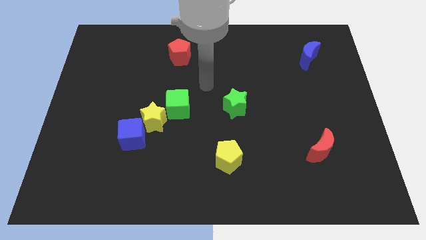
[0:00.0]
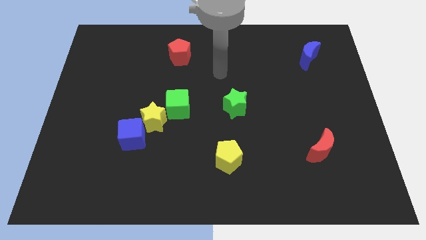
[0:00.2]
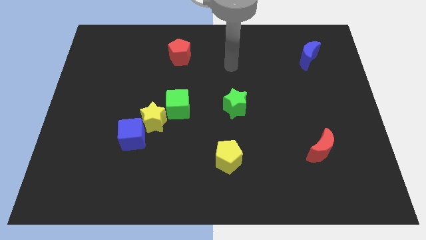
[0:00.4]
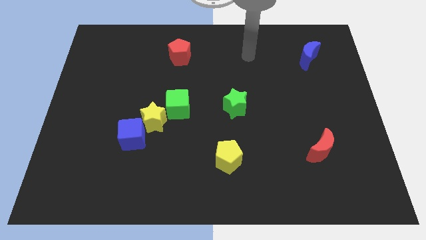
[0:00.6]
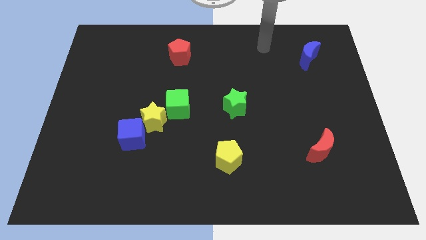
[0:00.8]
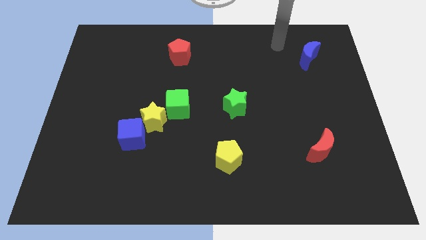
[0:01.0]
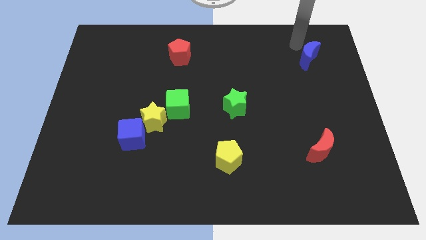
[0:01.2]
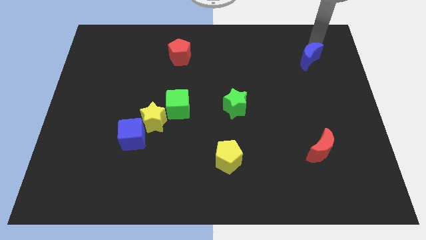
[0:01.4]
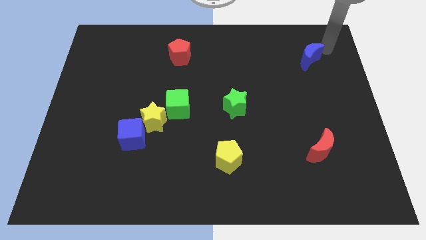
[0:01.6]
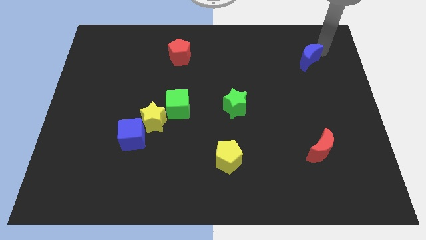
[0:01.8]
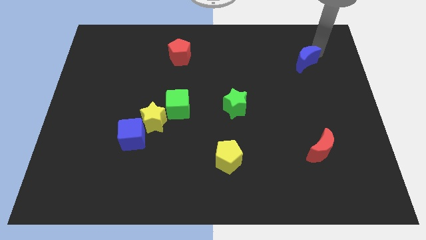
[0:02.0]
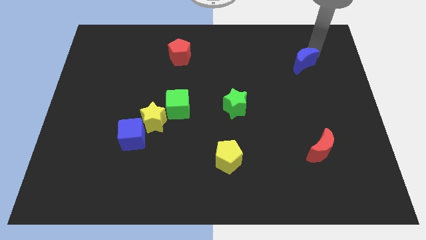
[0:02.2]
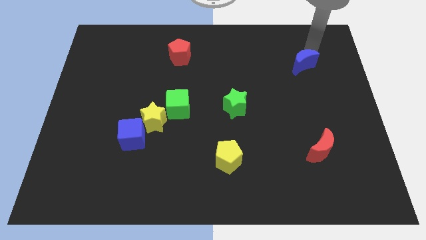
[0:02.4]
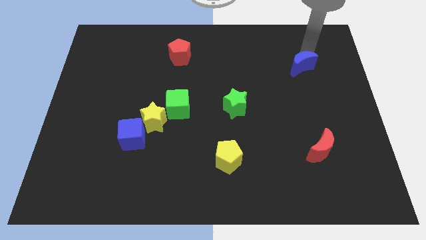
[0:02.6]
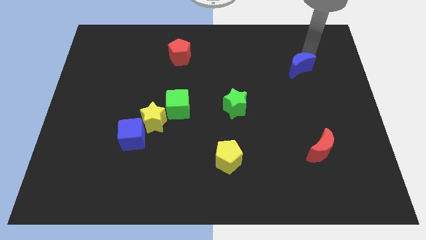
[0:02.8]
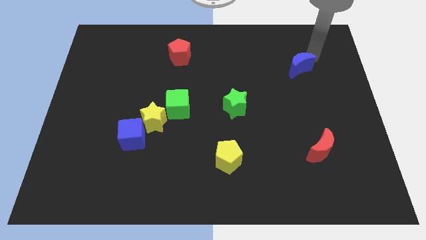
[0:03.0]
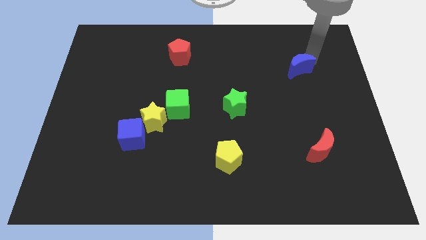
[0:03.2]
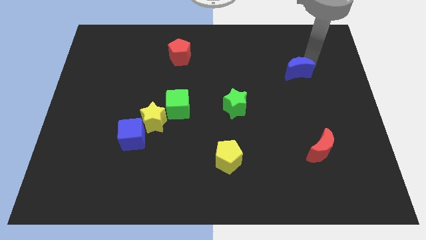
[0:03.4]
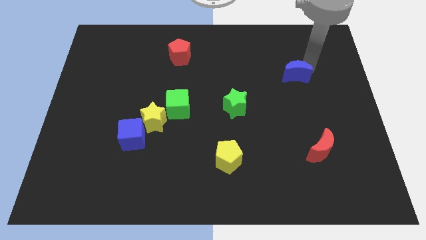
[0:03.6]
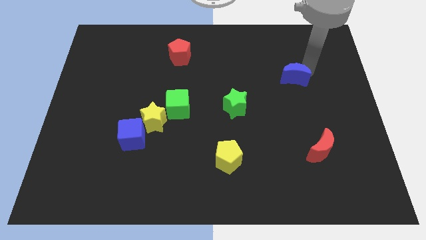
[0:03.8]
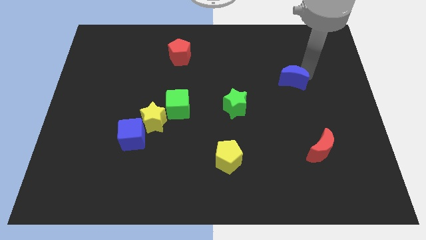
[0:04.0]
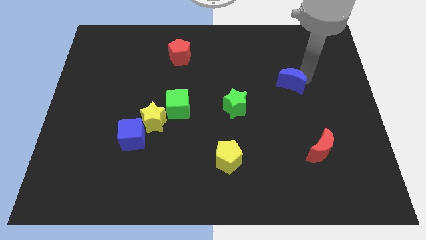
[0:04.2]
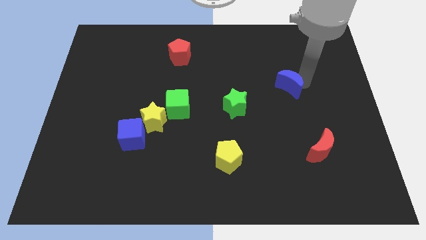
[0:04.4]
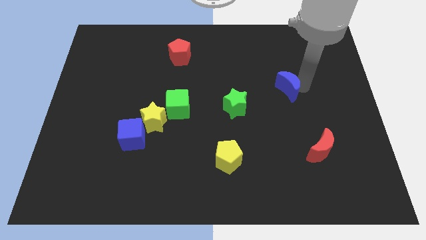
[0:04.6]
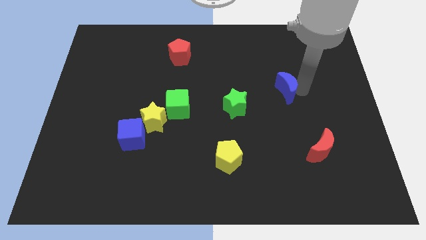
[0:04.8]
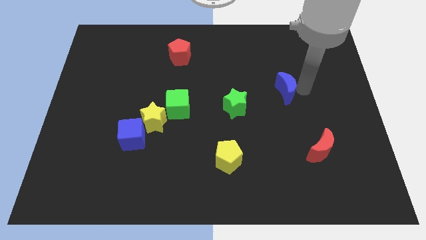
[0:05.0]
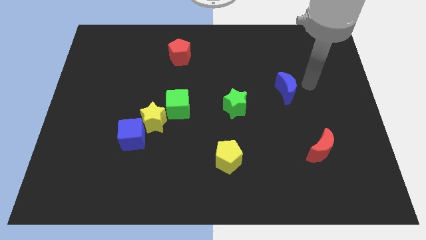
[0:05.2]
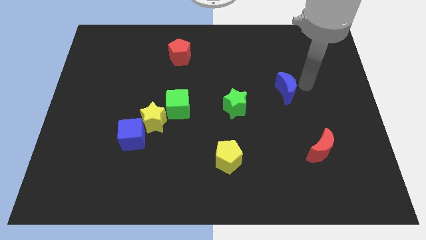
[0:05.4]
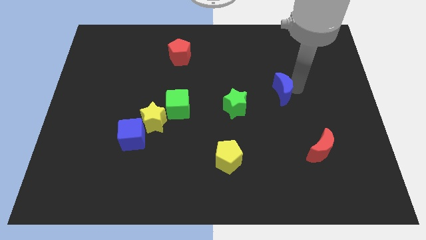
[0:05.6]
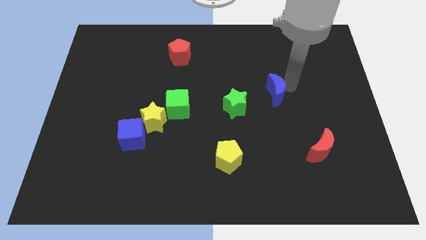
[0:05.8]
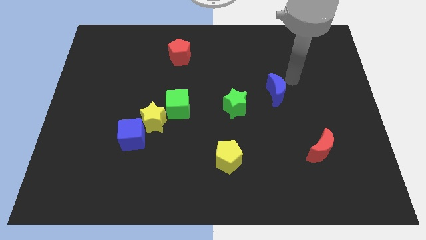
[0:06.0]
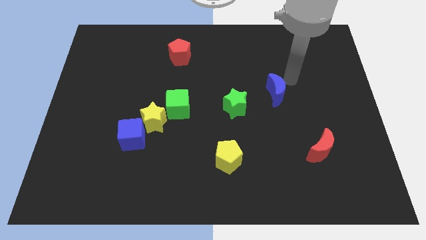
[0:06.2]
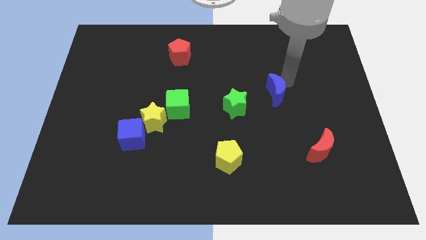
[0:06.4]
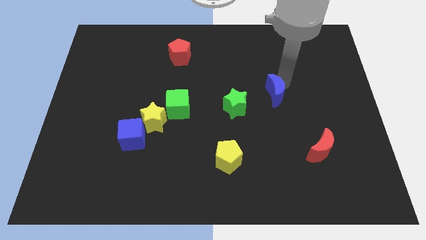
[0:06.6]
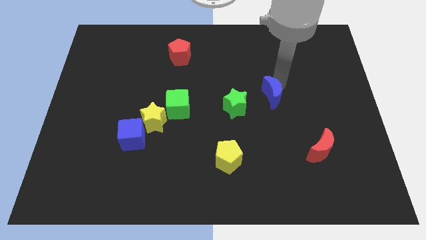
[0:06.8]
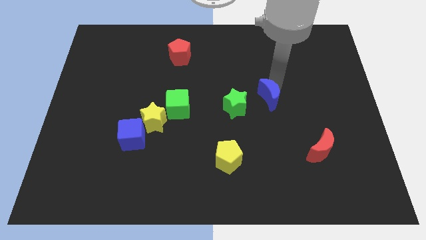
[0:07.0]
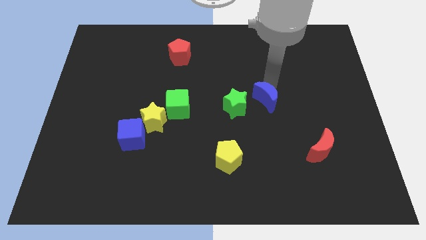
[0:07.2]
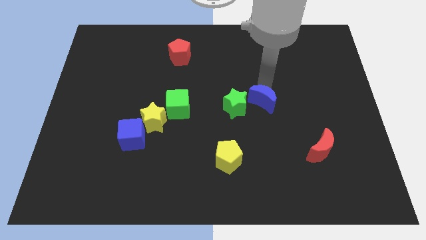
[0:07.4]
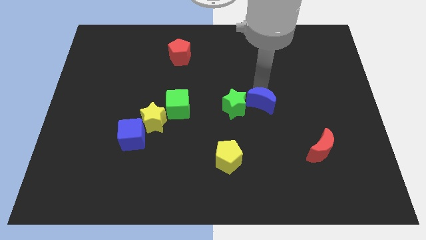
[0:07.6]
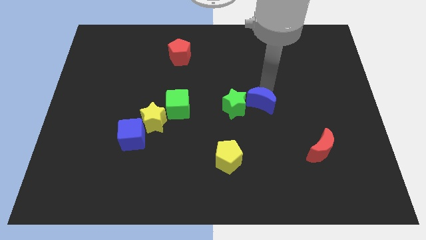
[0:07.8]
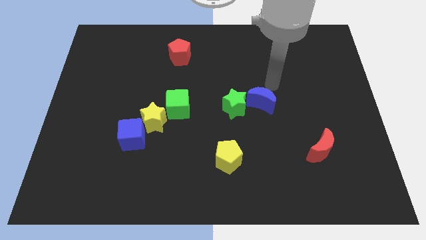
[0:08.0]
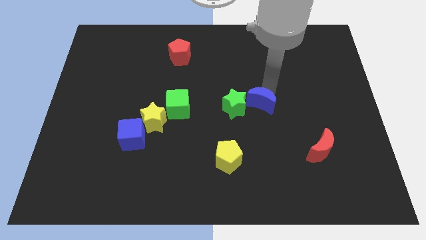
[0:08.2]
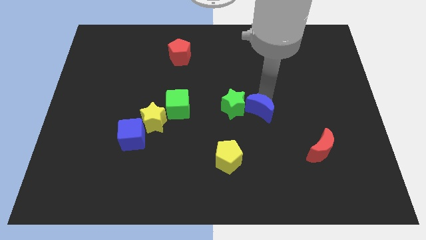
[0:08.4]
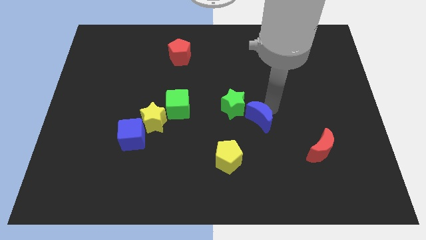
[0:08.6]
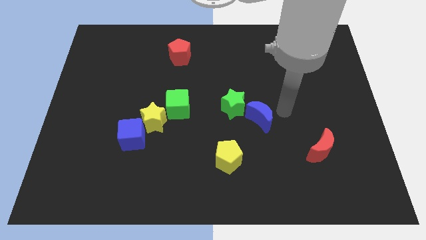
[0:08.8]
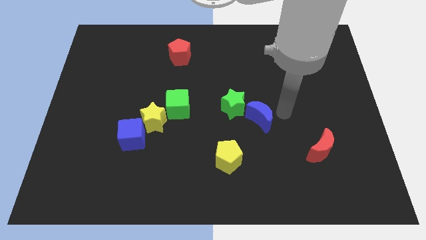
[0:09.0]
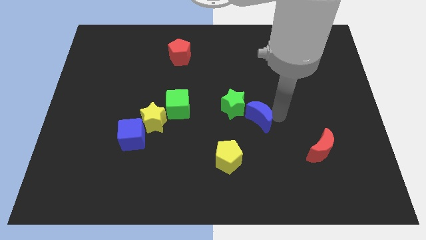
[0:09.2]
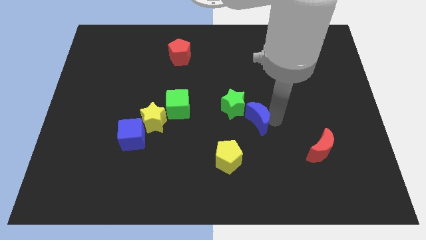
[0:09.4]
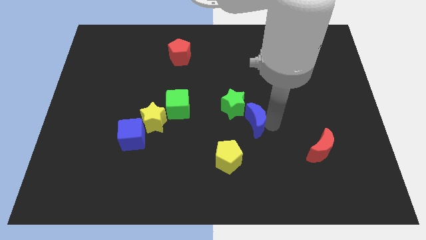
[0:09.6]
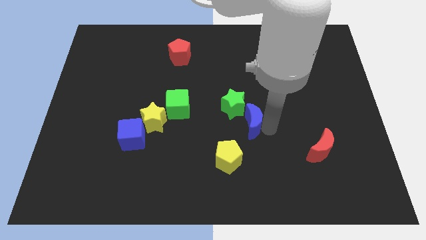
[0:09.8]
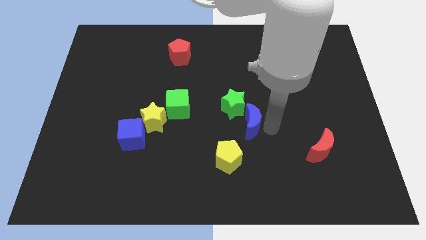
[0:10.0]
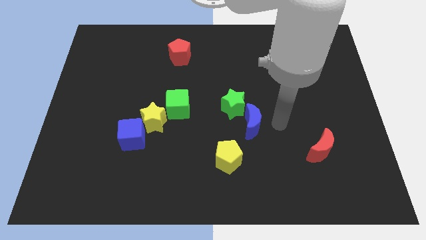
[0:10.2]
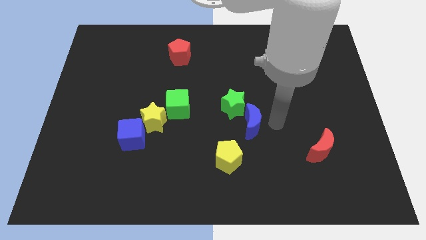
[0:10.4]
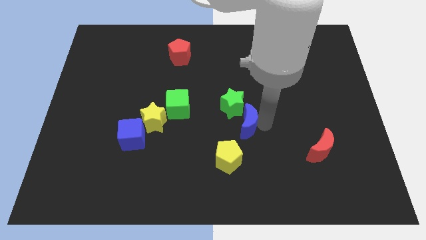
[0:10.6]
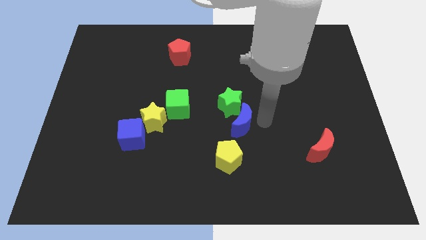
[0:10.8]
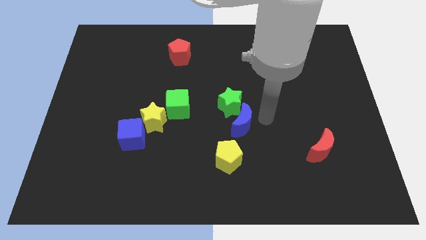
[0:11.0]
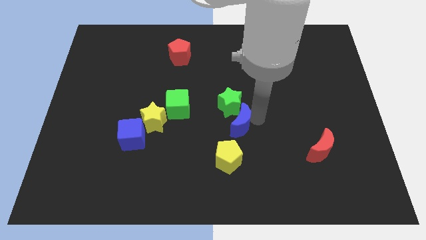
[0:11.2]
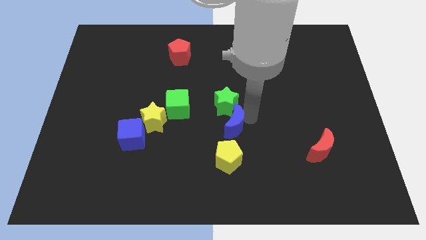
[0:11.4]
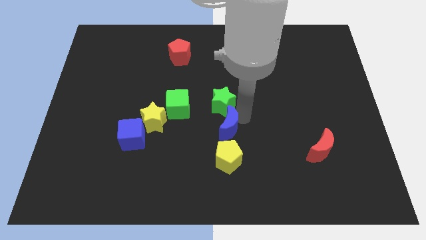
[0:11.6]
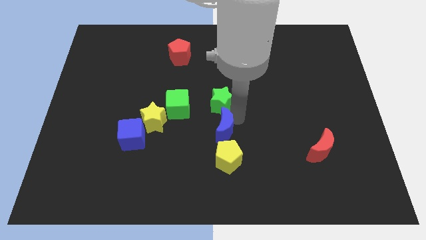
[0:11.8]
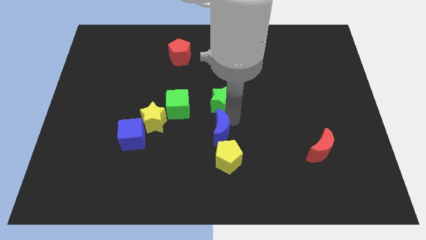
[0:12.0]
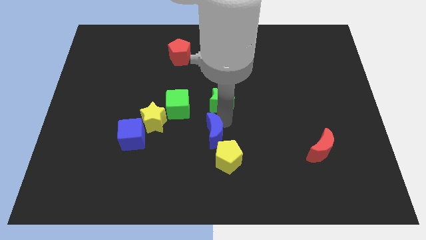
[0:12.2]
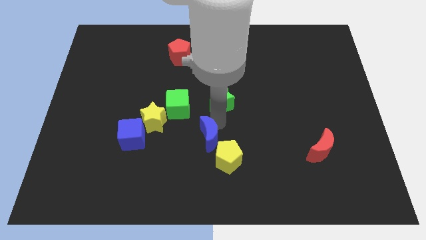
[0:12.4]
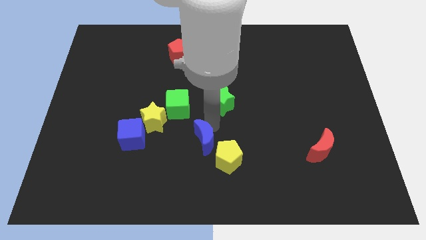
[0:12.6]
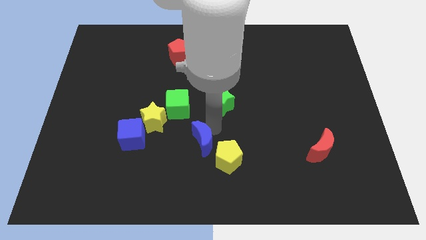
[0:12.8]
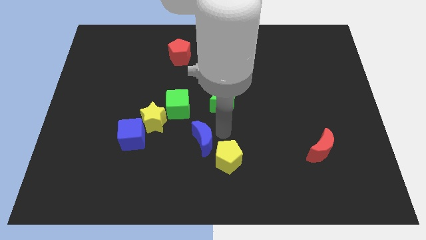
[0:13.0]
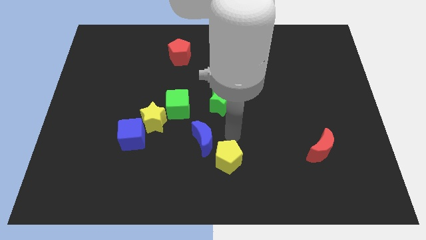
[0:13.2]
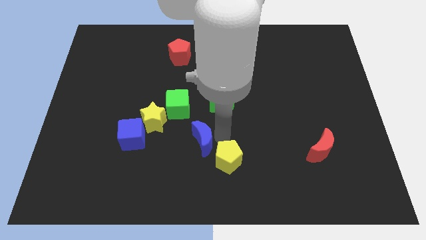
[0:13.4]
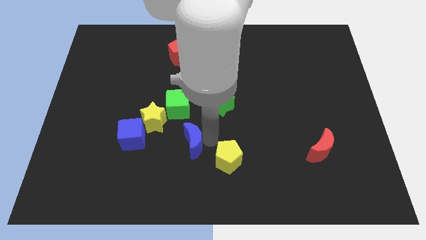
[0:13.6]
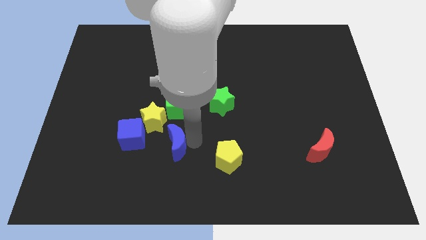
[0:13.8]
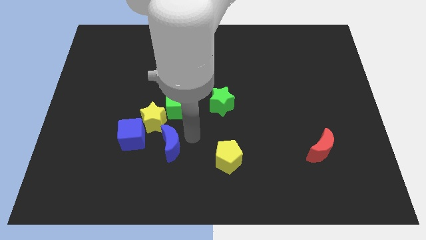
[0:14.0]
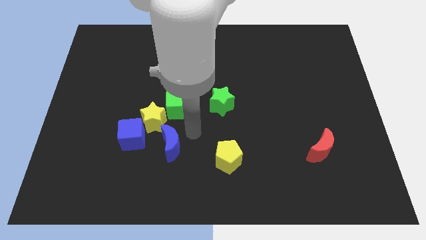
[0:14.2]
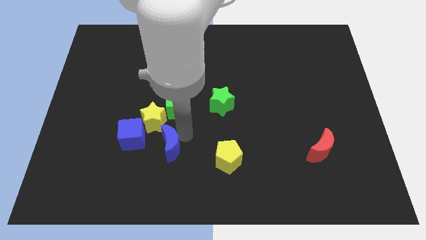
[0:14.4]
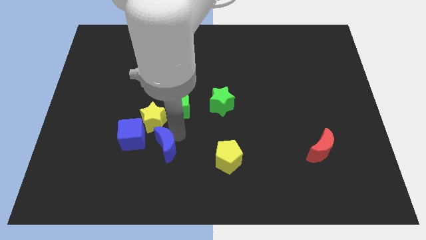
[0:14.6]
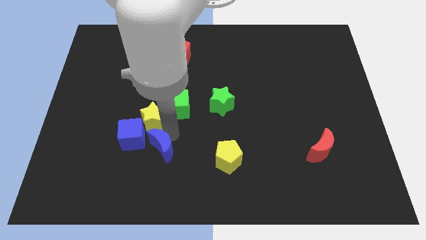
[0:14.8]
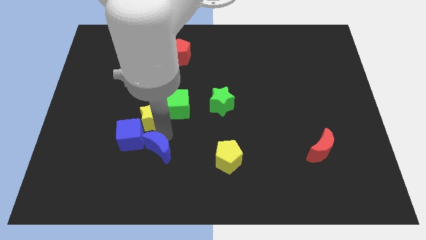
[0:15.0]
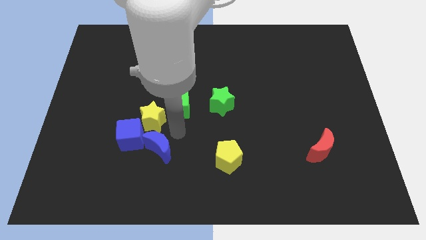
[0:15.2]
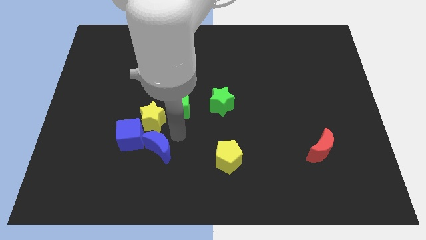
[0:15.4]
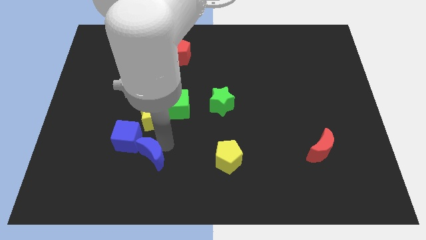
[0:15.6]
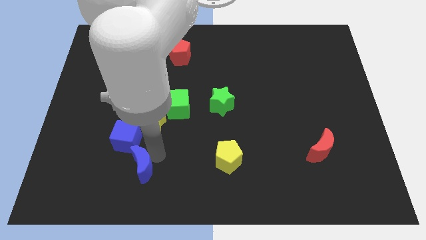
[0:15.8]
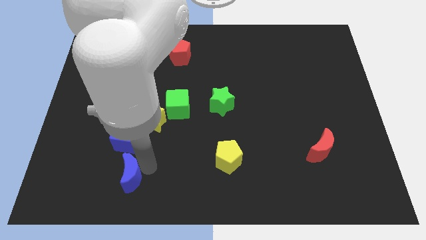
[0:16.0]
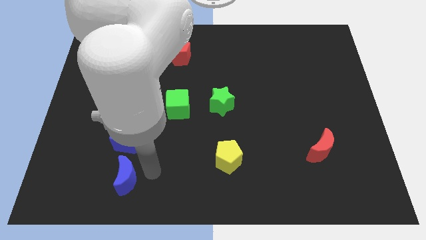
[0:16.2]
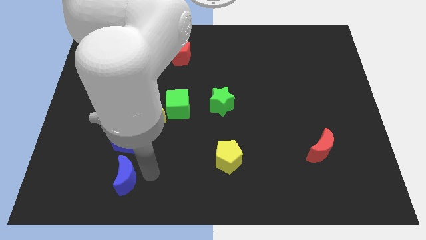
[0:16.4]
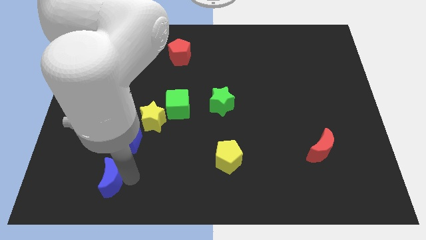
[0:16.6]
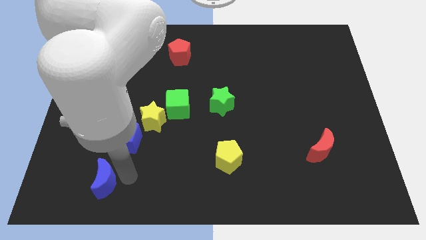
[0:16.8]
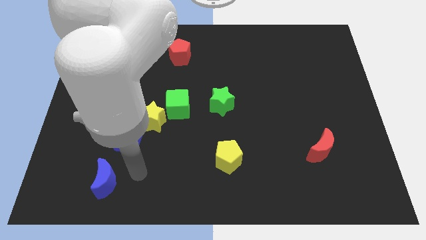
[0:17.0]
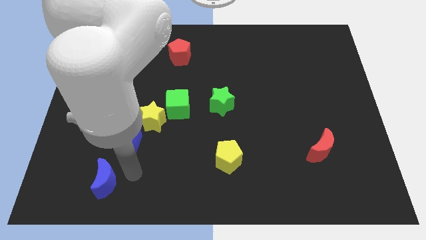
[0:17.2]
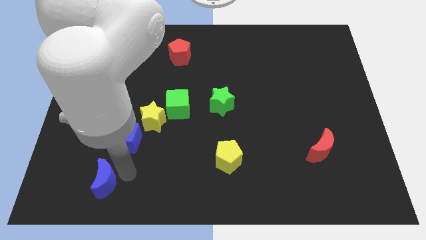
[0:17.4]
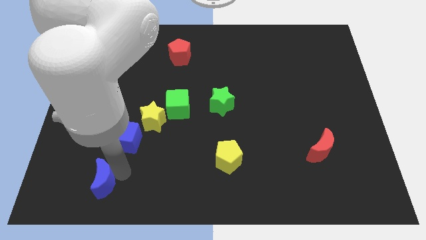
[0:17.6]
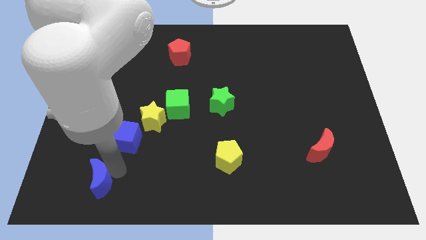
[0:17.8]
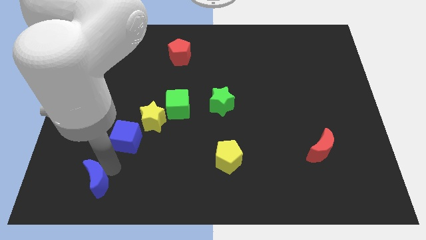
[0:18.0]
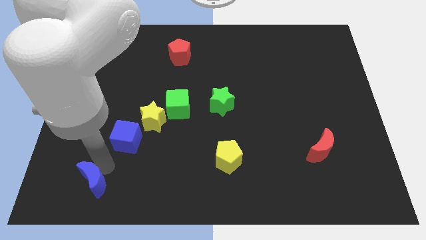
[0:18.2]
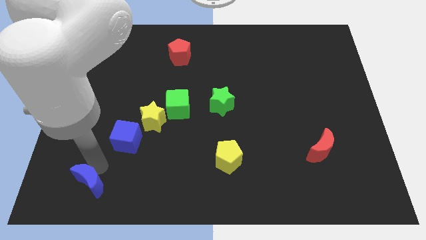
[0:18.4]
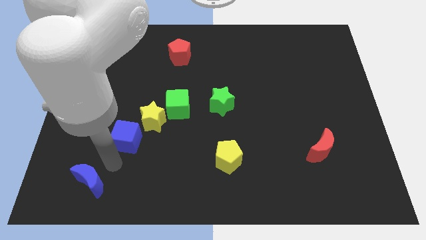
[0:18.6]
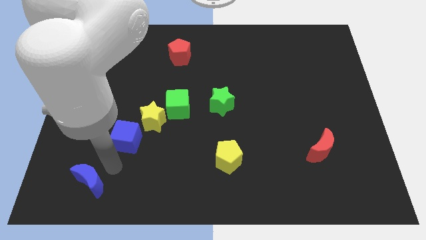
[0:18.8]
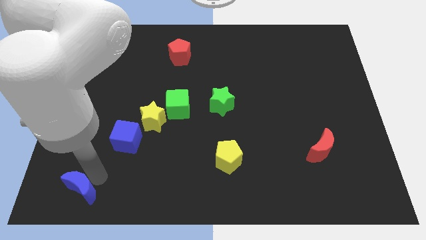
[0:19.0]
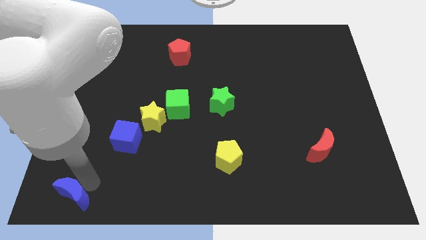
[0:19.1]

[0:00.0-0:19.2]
push the blue moon to the bottom left
